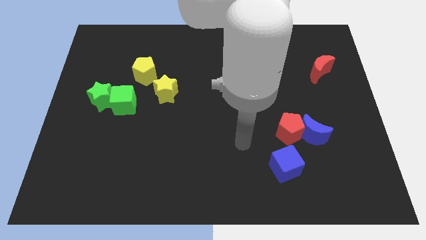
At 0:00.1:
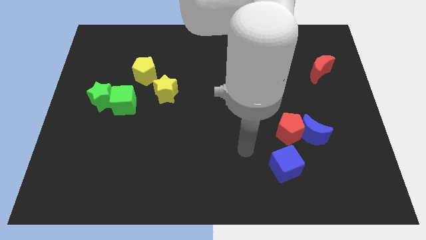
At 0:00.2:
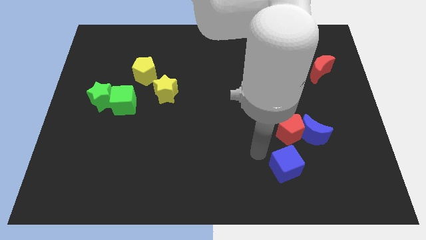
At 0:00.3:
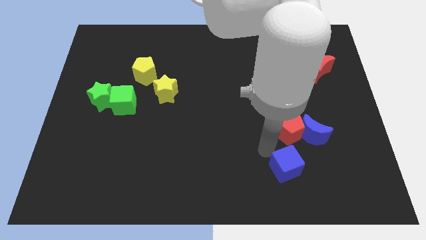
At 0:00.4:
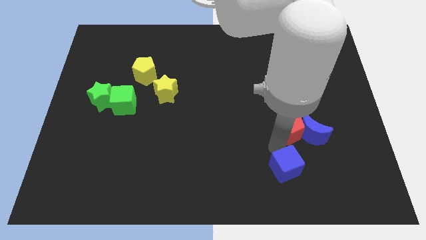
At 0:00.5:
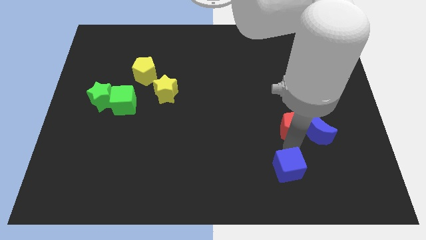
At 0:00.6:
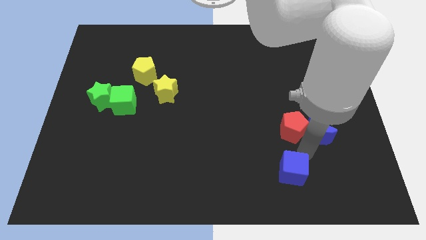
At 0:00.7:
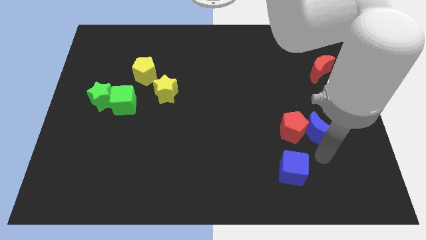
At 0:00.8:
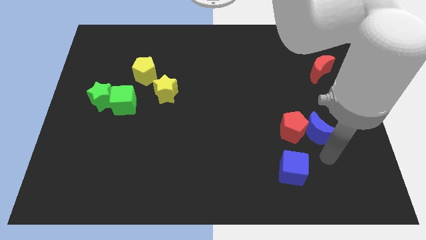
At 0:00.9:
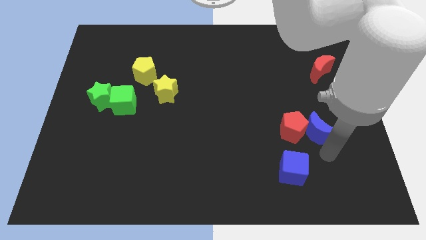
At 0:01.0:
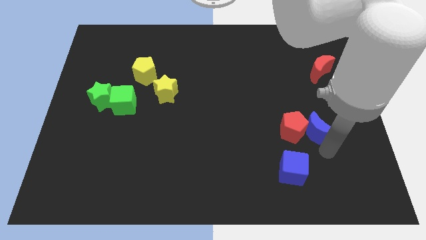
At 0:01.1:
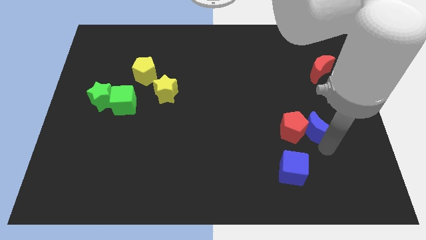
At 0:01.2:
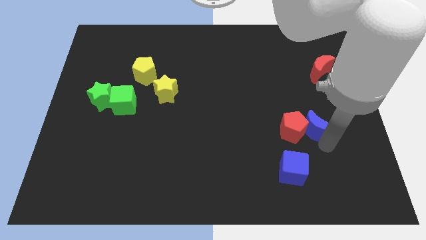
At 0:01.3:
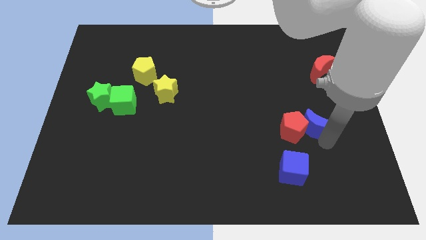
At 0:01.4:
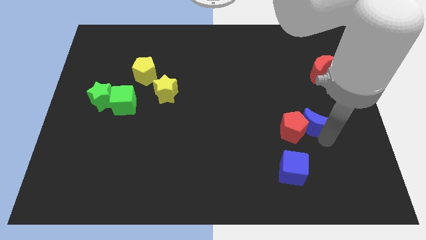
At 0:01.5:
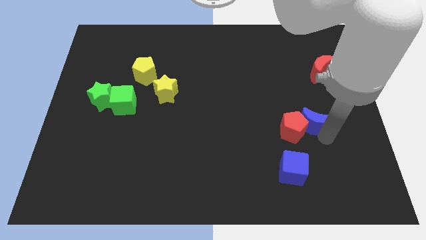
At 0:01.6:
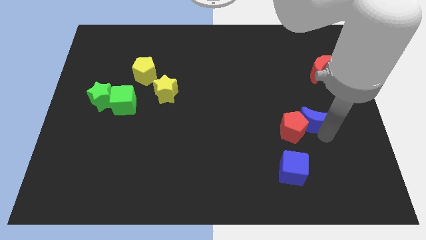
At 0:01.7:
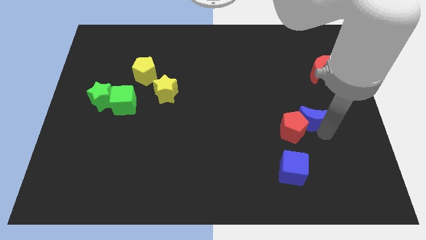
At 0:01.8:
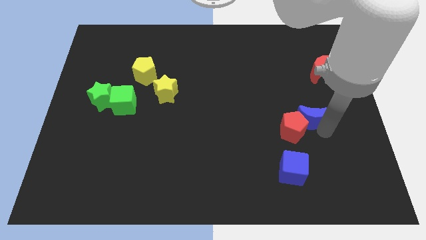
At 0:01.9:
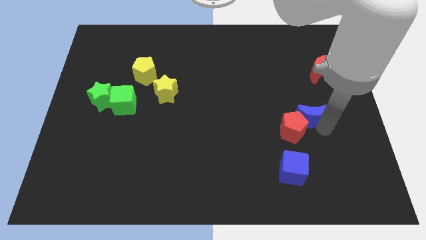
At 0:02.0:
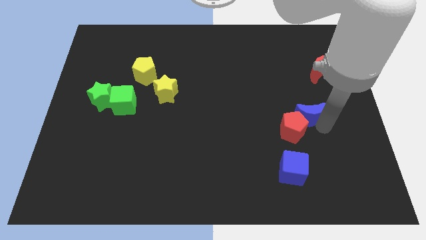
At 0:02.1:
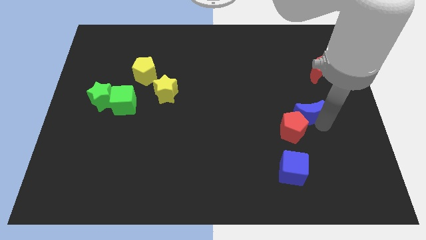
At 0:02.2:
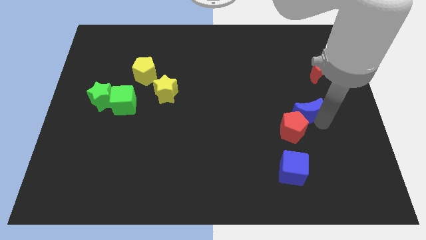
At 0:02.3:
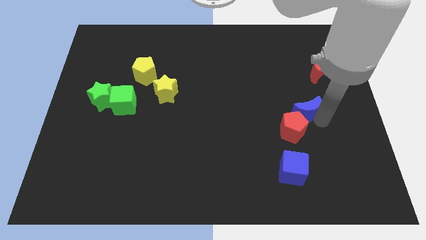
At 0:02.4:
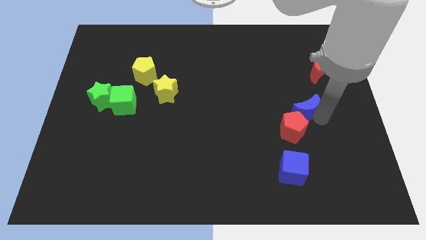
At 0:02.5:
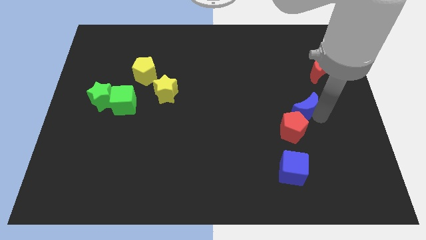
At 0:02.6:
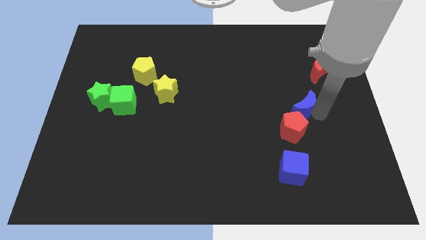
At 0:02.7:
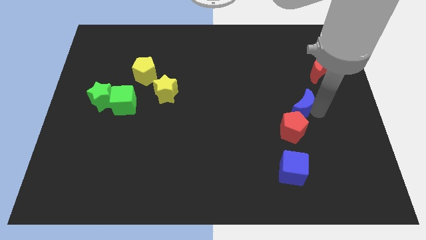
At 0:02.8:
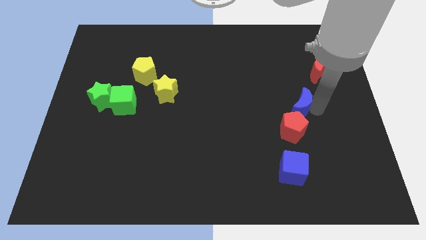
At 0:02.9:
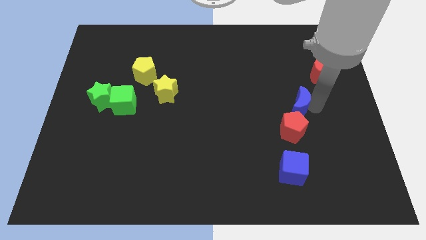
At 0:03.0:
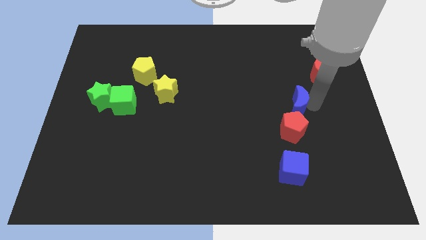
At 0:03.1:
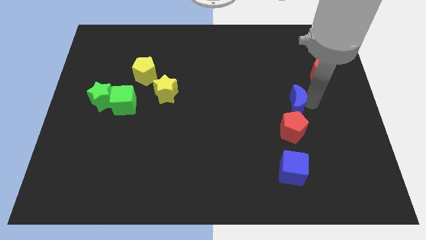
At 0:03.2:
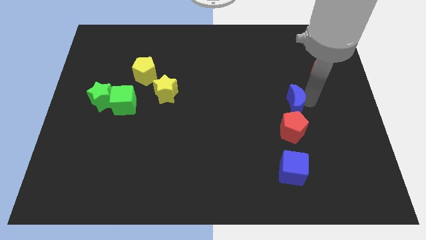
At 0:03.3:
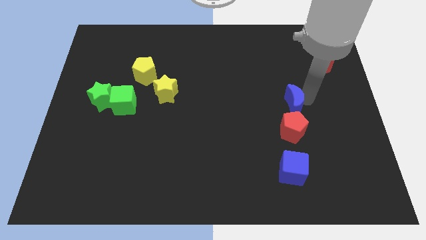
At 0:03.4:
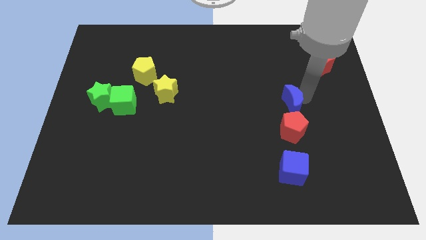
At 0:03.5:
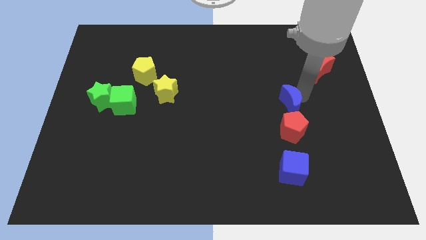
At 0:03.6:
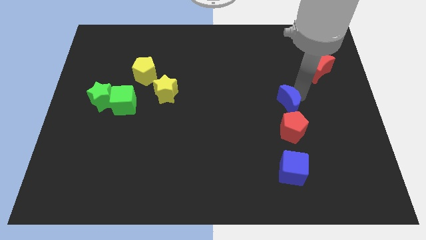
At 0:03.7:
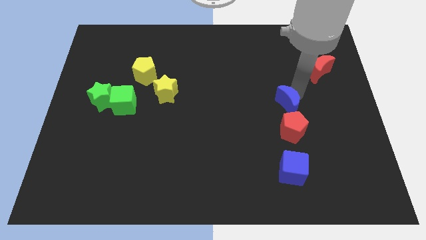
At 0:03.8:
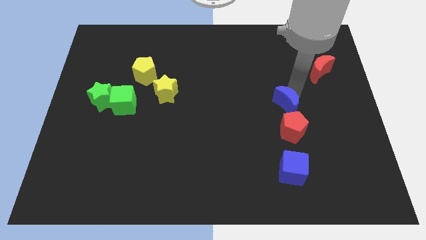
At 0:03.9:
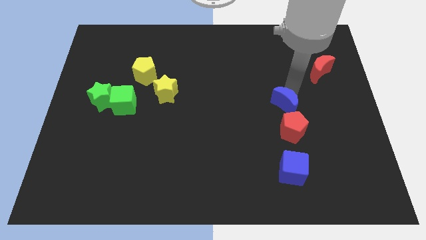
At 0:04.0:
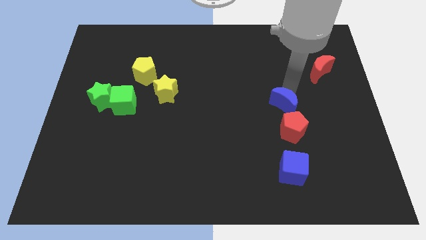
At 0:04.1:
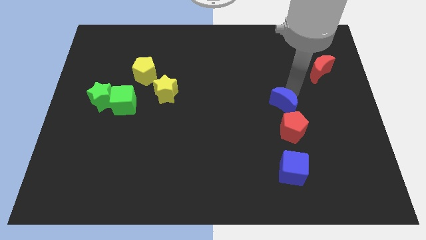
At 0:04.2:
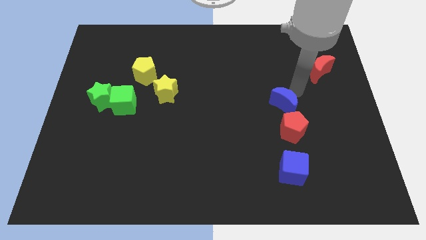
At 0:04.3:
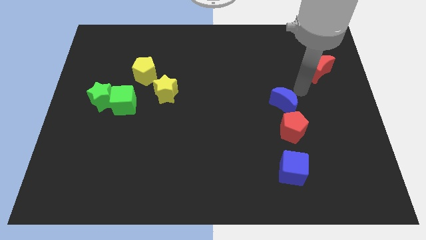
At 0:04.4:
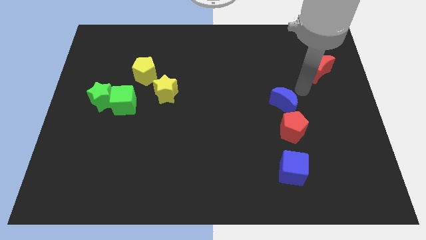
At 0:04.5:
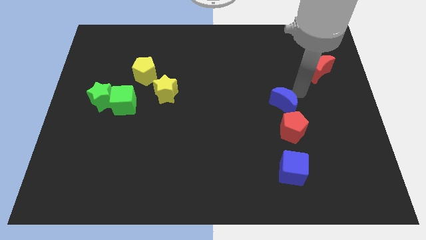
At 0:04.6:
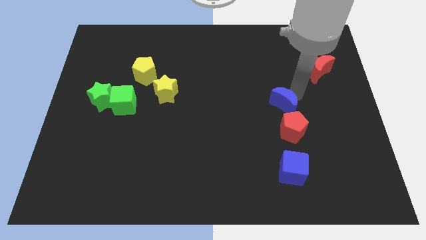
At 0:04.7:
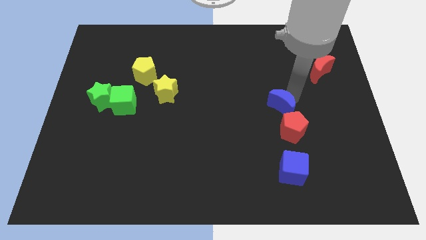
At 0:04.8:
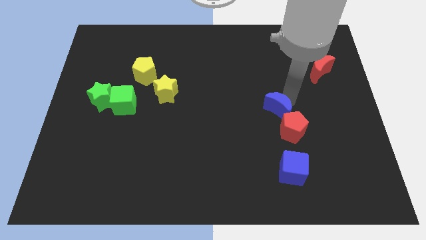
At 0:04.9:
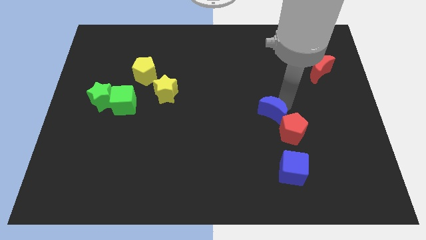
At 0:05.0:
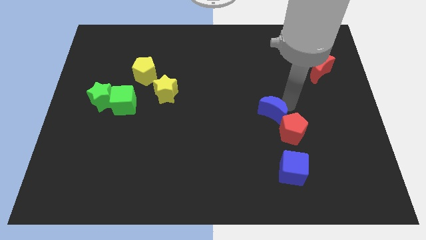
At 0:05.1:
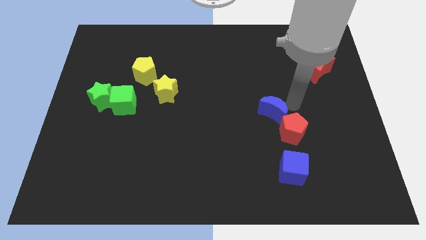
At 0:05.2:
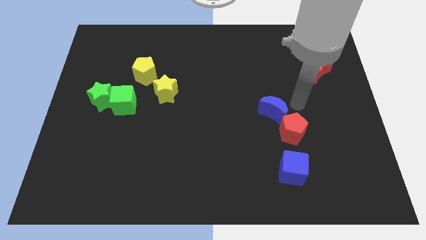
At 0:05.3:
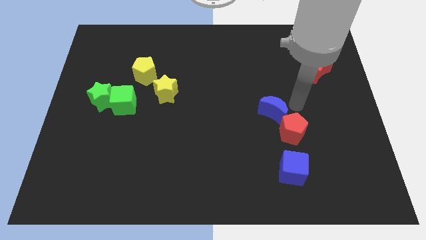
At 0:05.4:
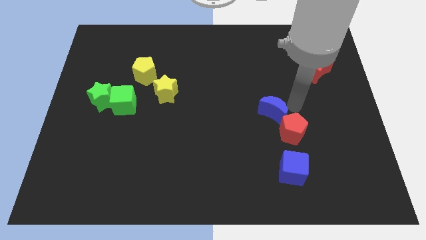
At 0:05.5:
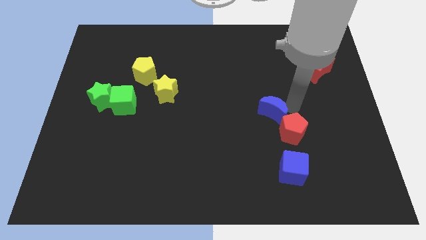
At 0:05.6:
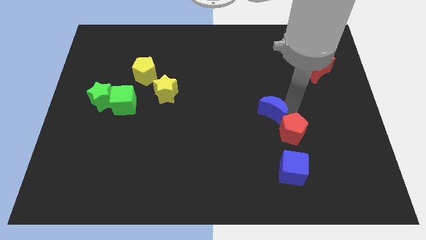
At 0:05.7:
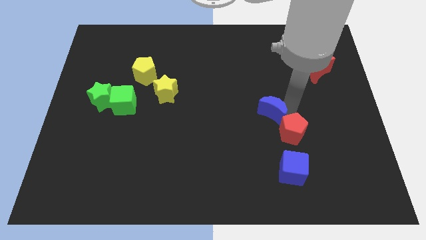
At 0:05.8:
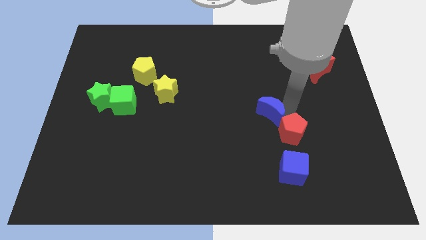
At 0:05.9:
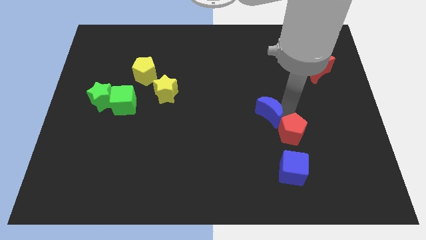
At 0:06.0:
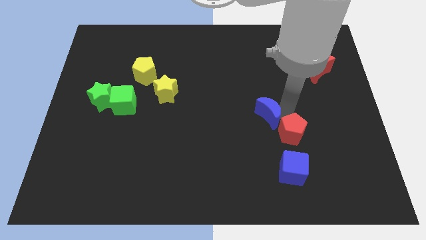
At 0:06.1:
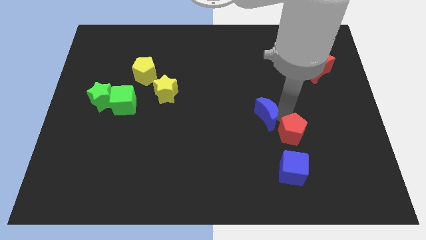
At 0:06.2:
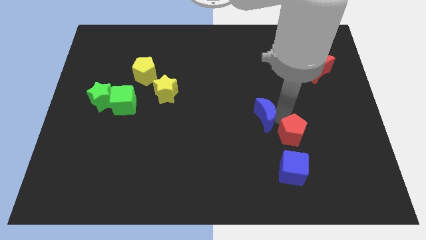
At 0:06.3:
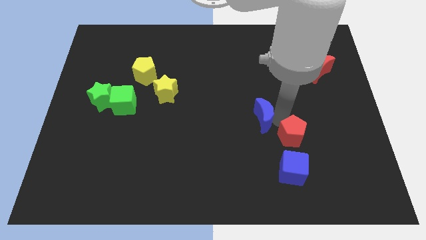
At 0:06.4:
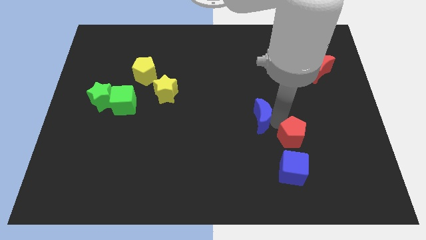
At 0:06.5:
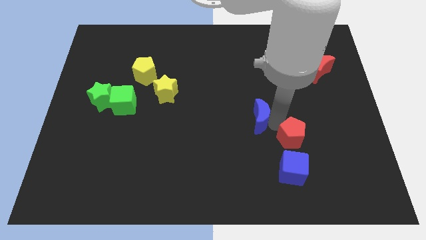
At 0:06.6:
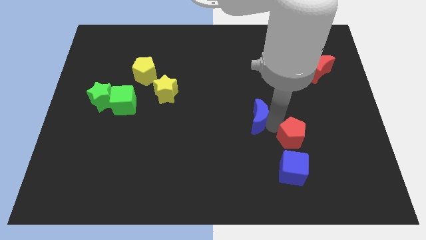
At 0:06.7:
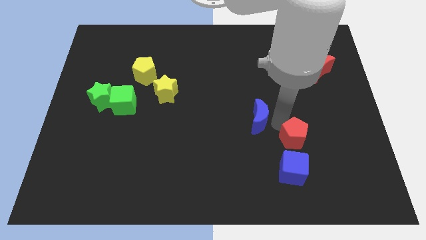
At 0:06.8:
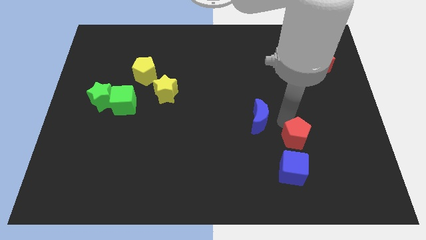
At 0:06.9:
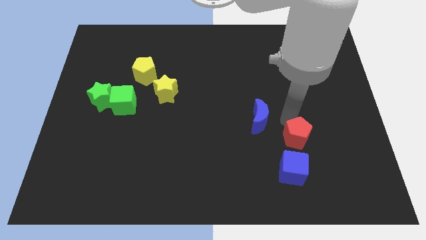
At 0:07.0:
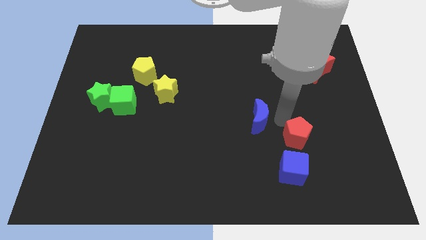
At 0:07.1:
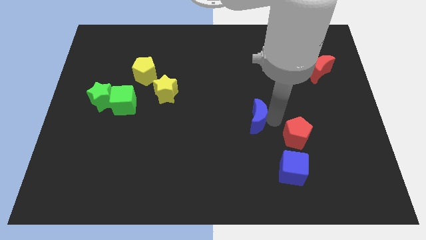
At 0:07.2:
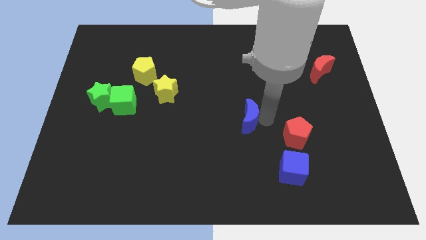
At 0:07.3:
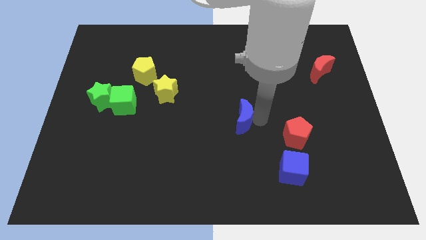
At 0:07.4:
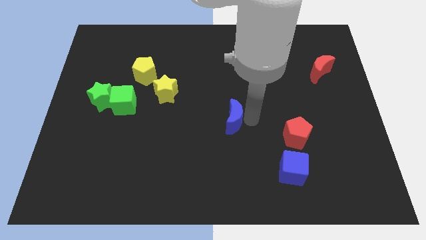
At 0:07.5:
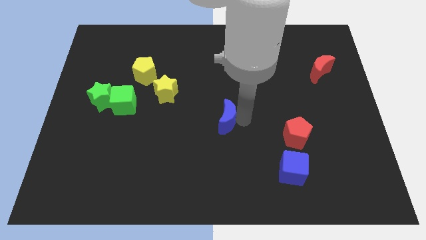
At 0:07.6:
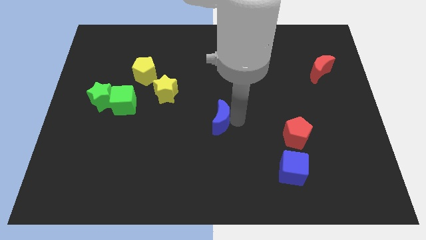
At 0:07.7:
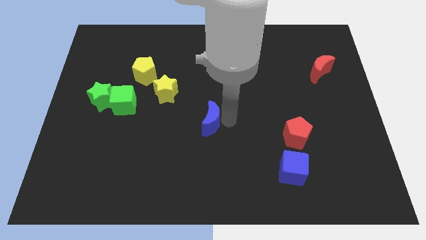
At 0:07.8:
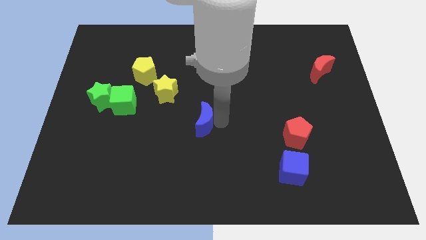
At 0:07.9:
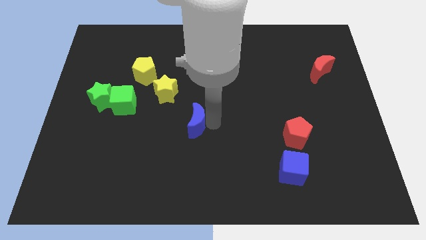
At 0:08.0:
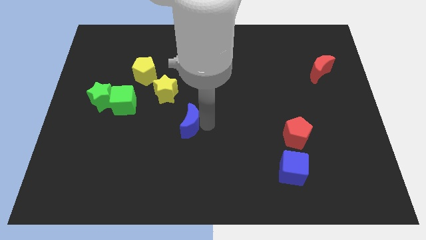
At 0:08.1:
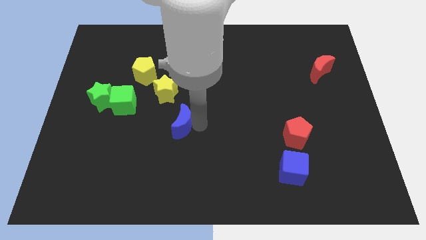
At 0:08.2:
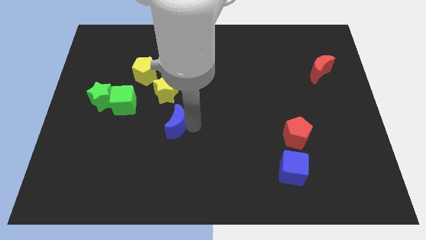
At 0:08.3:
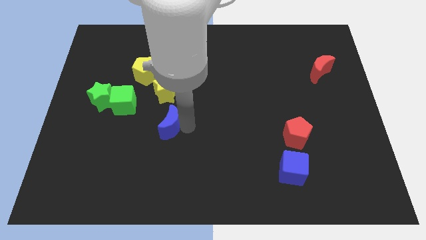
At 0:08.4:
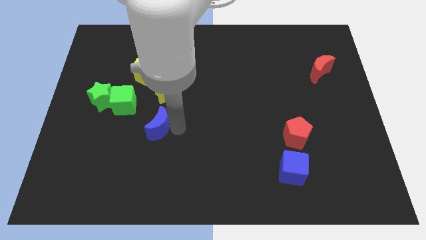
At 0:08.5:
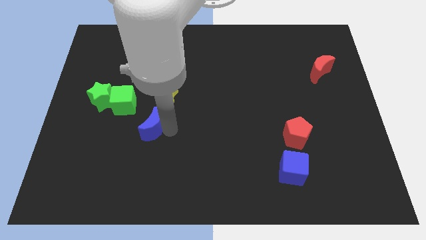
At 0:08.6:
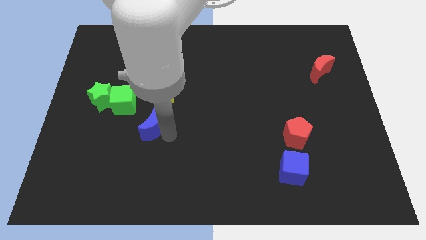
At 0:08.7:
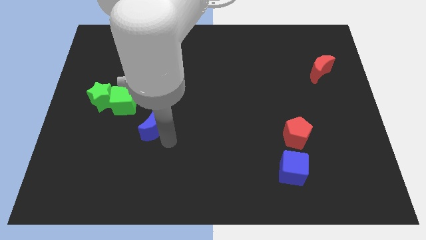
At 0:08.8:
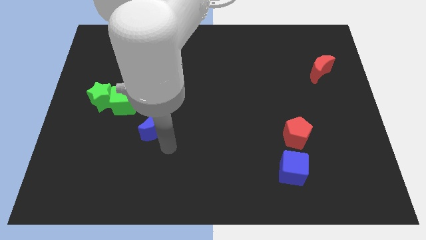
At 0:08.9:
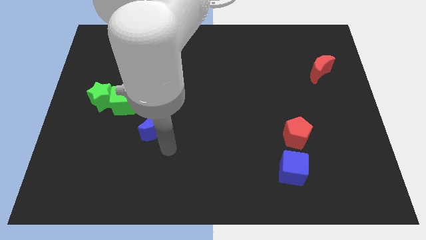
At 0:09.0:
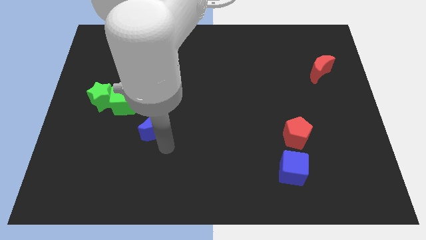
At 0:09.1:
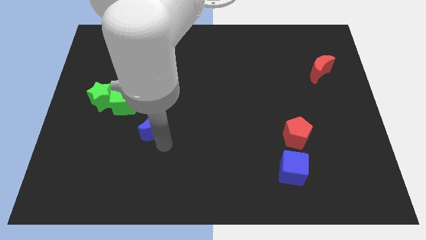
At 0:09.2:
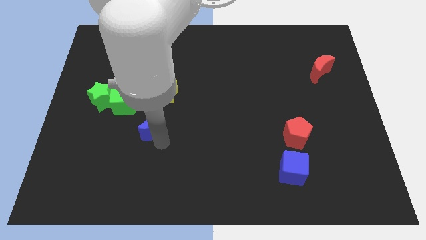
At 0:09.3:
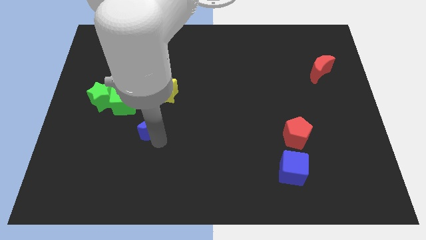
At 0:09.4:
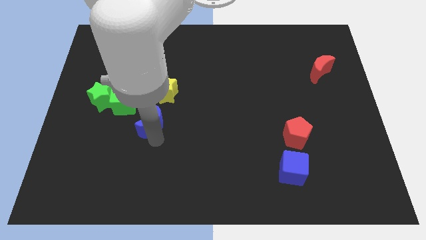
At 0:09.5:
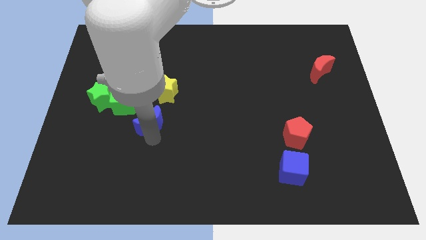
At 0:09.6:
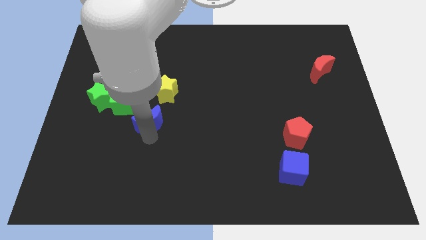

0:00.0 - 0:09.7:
move the blue moon diagonally down and to the left of the yellow star
